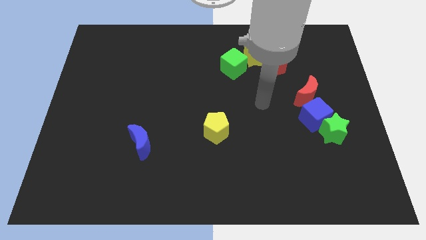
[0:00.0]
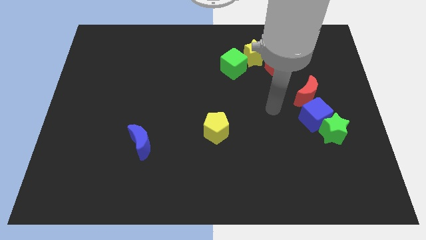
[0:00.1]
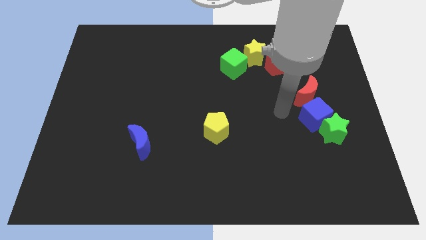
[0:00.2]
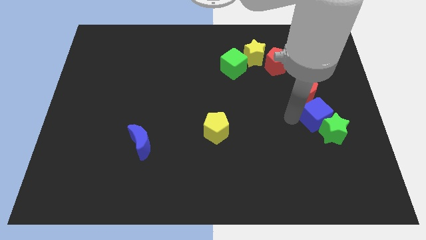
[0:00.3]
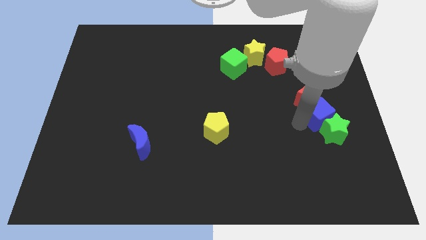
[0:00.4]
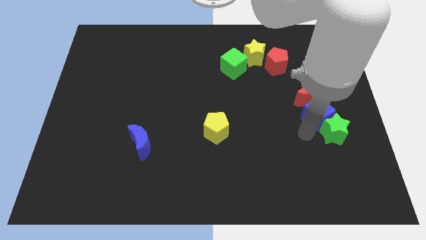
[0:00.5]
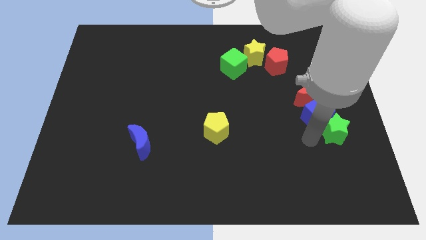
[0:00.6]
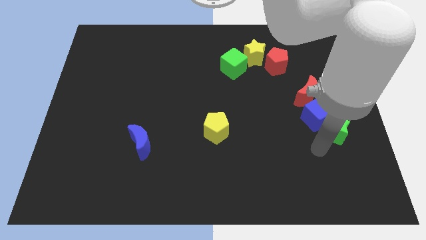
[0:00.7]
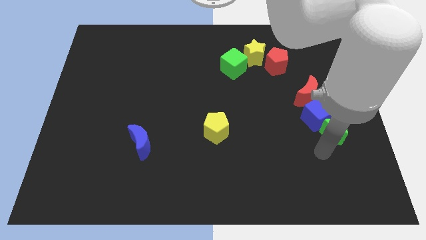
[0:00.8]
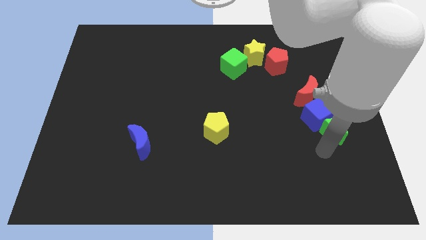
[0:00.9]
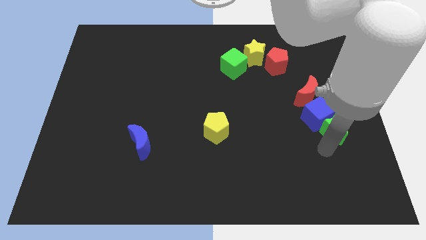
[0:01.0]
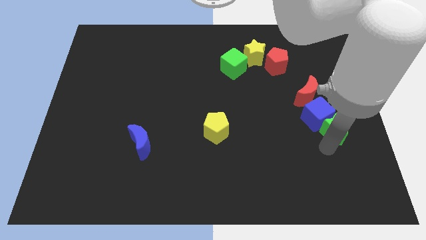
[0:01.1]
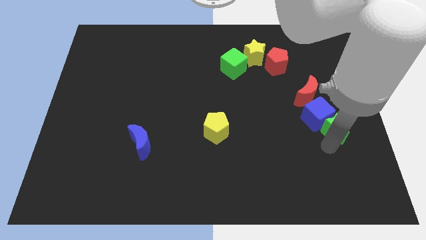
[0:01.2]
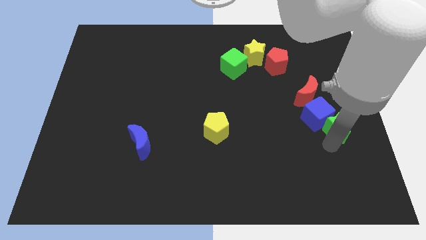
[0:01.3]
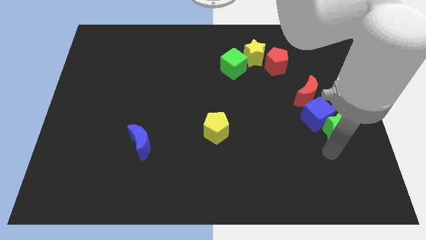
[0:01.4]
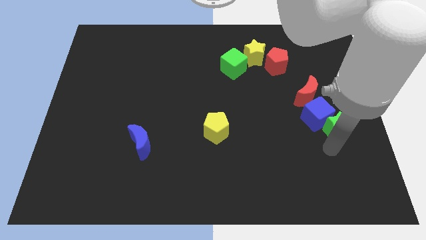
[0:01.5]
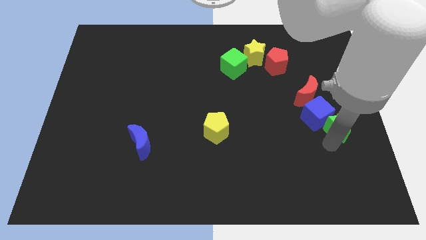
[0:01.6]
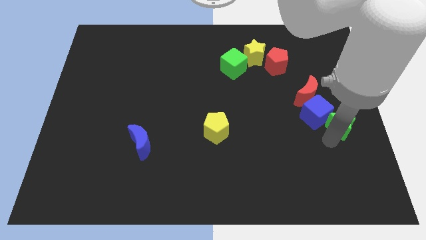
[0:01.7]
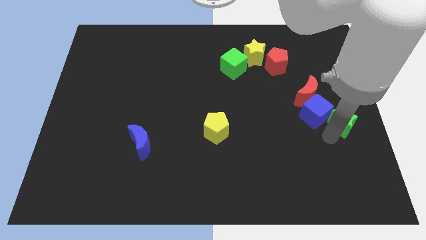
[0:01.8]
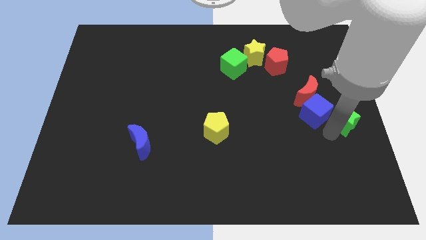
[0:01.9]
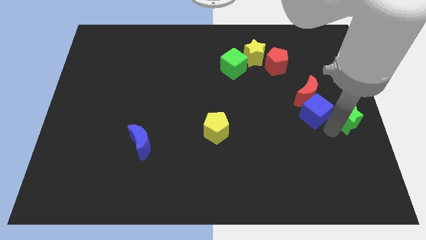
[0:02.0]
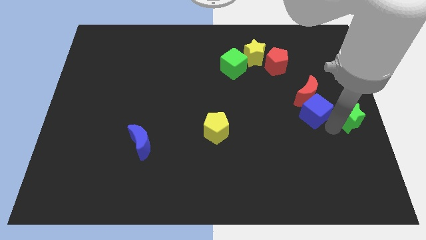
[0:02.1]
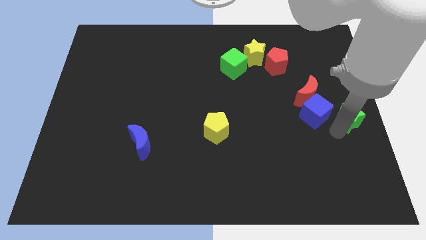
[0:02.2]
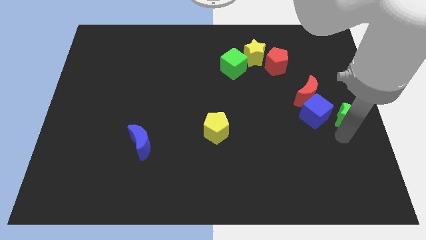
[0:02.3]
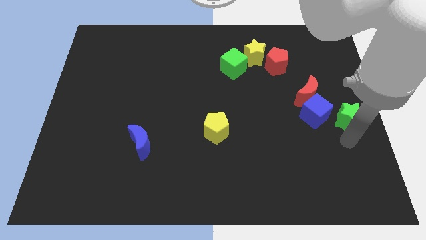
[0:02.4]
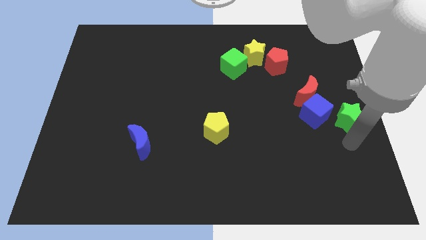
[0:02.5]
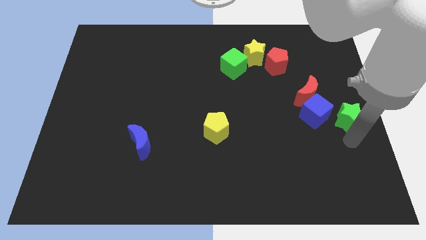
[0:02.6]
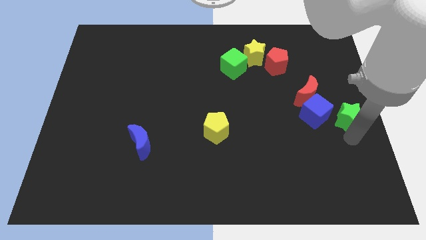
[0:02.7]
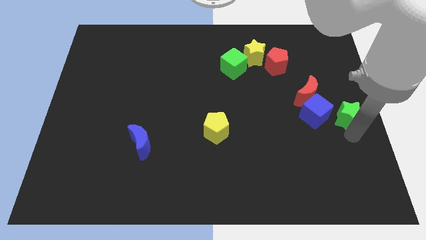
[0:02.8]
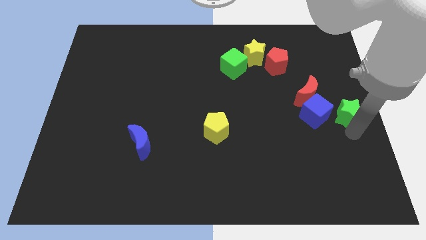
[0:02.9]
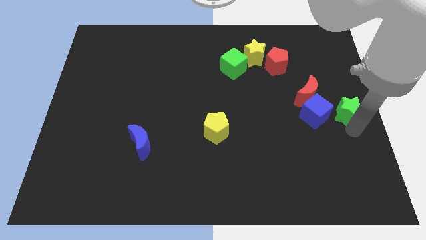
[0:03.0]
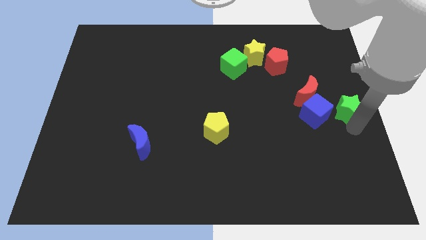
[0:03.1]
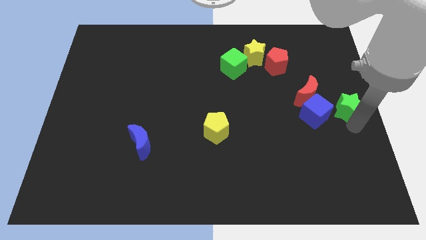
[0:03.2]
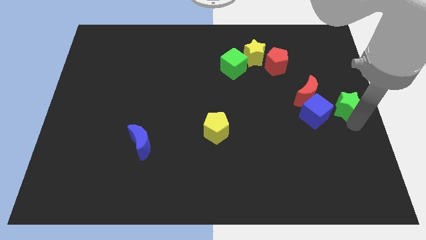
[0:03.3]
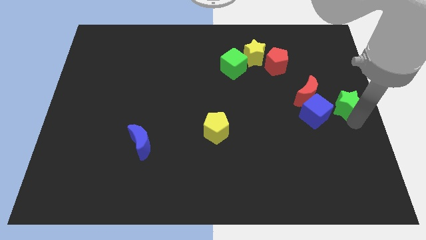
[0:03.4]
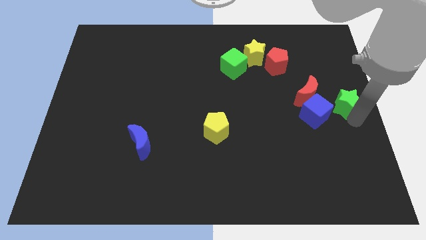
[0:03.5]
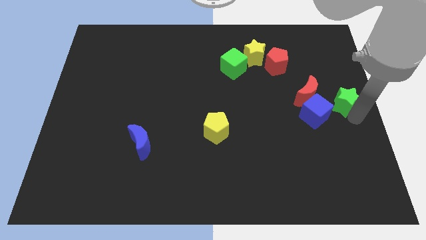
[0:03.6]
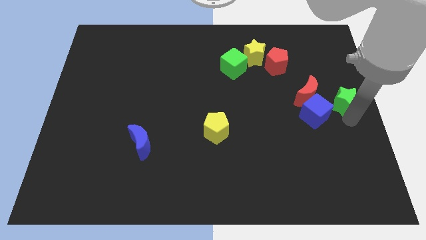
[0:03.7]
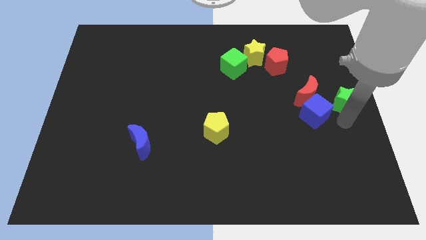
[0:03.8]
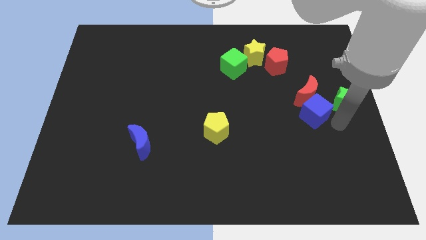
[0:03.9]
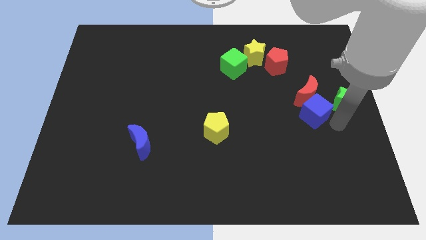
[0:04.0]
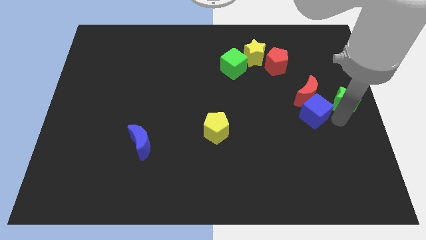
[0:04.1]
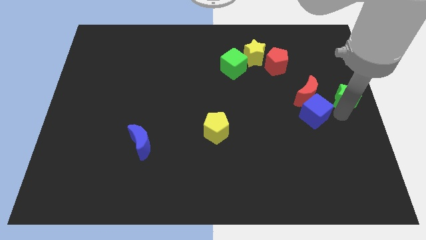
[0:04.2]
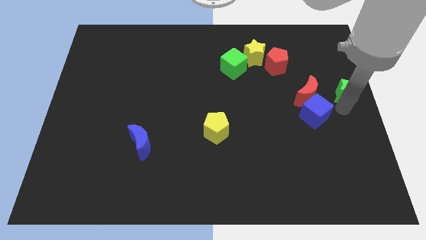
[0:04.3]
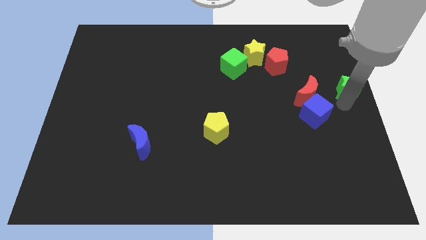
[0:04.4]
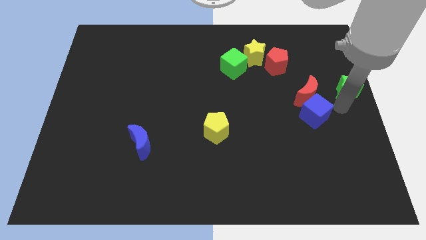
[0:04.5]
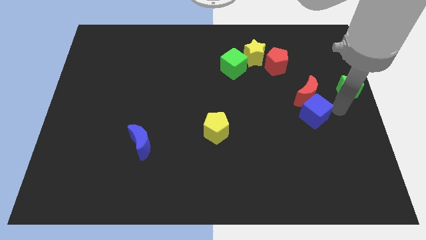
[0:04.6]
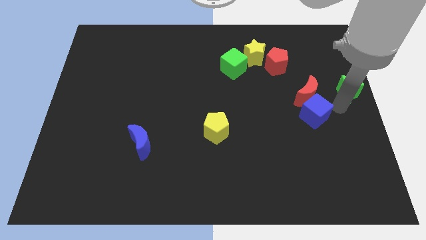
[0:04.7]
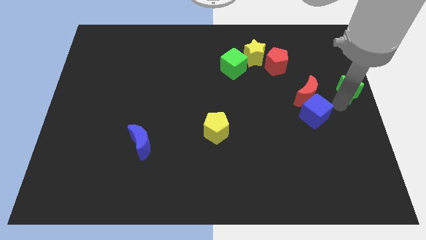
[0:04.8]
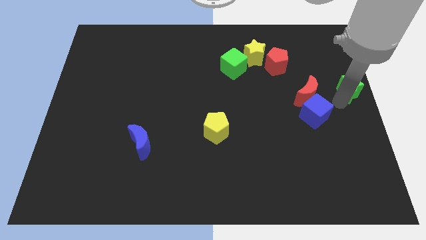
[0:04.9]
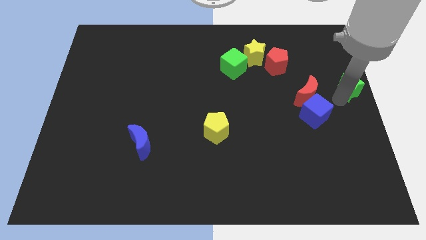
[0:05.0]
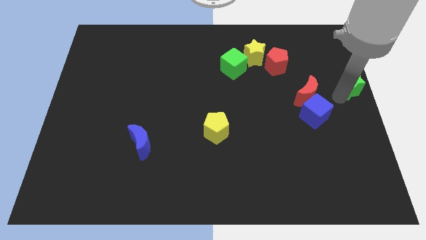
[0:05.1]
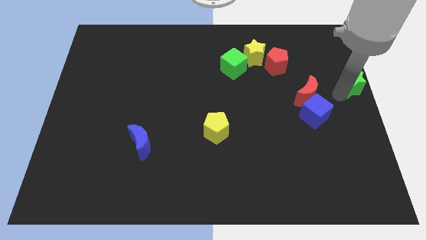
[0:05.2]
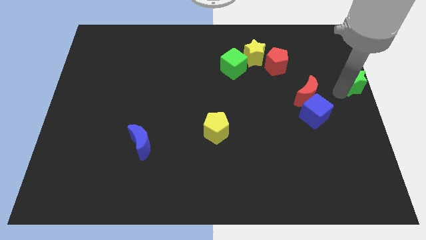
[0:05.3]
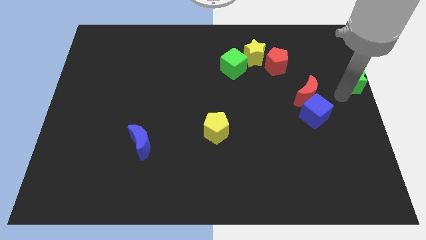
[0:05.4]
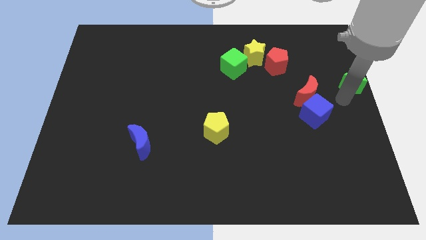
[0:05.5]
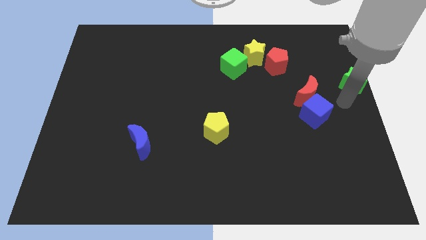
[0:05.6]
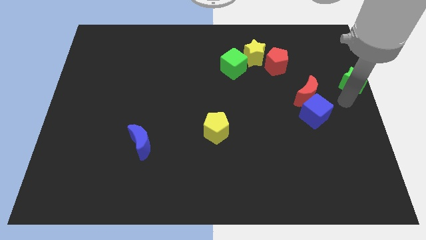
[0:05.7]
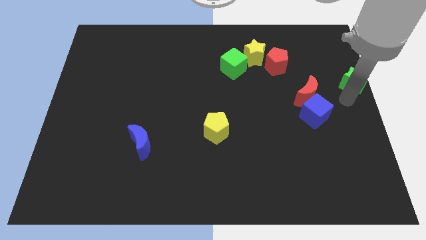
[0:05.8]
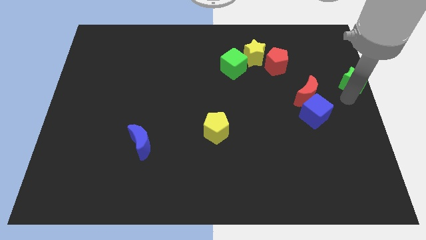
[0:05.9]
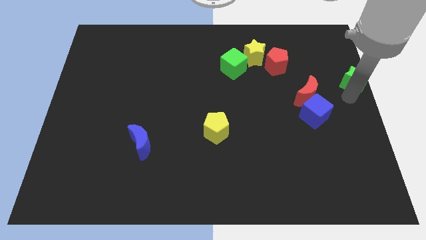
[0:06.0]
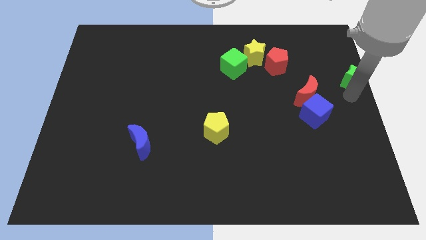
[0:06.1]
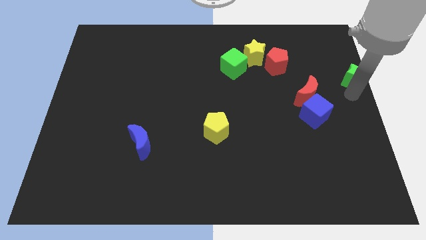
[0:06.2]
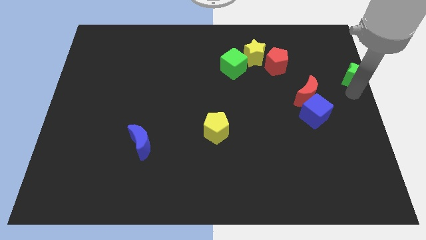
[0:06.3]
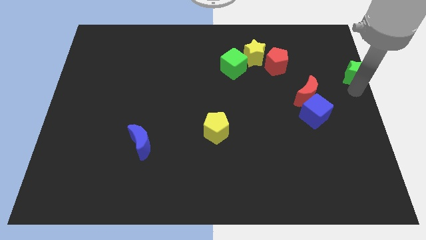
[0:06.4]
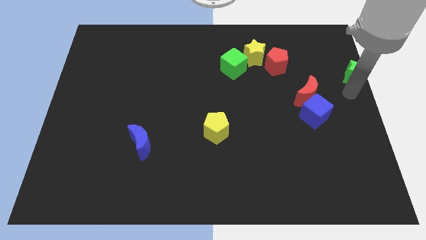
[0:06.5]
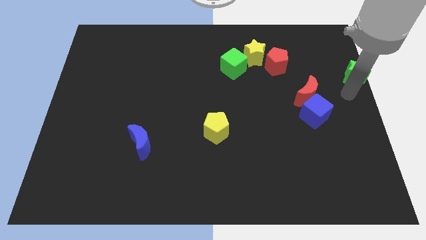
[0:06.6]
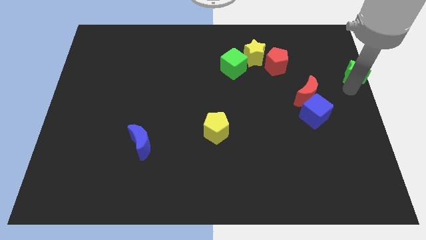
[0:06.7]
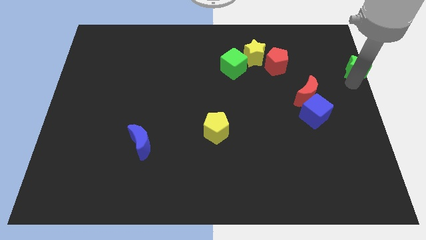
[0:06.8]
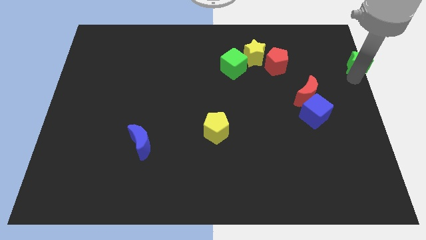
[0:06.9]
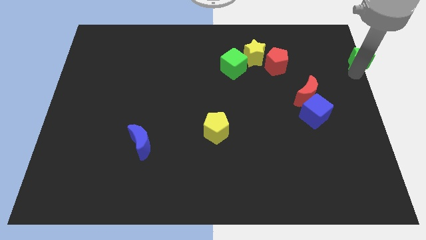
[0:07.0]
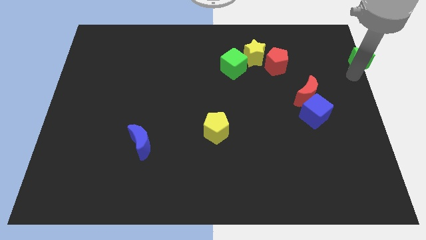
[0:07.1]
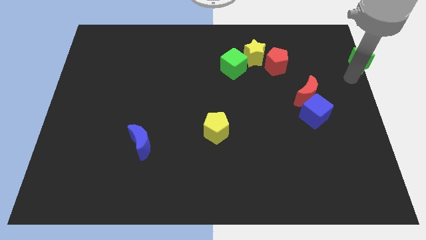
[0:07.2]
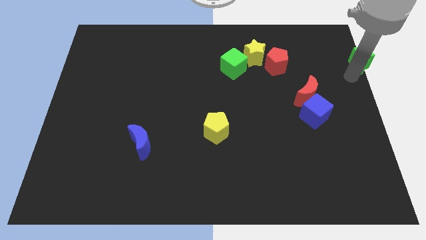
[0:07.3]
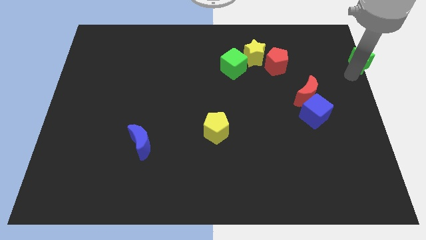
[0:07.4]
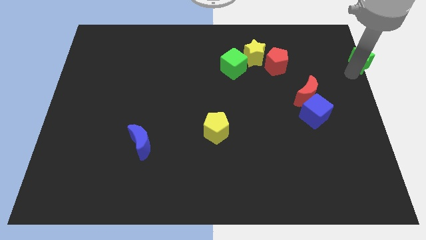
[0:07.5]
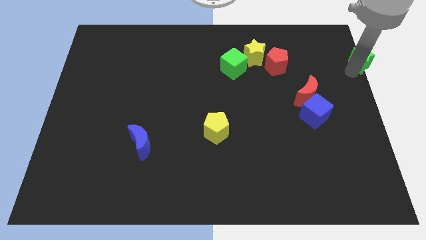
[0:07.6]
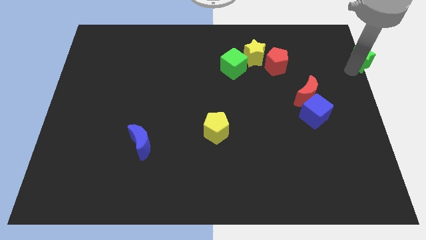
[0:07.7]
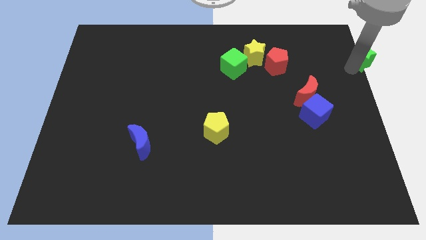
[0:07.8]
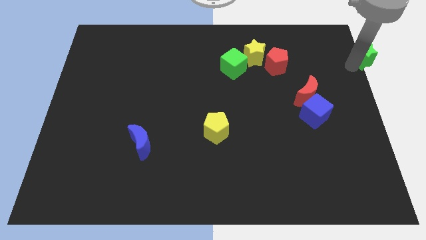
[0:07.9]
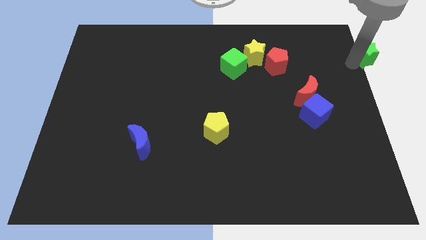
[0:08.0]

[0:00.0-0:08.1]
slide the green star to the top right
